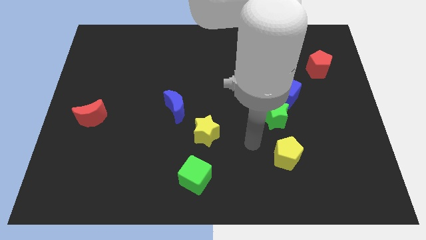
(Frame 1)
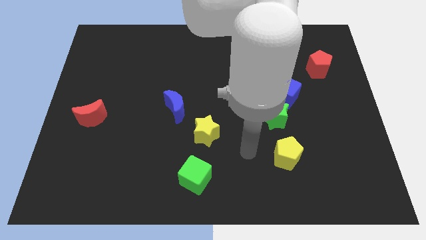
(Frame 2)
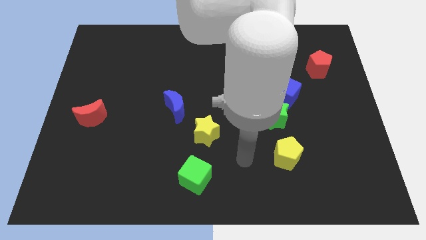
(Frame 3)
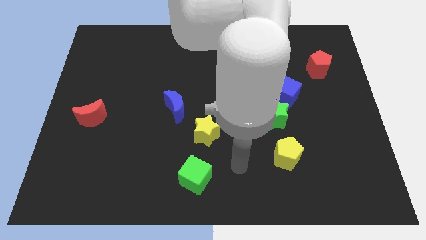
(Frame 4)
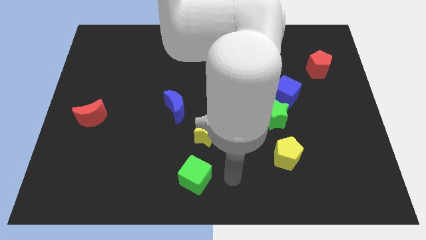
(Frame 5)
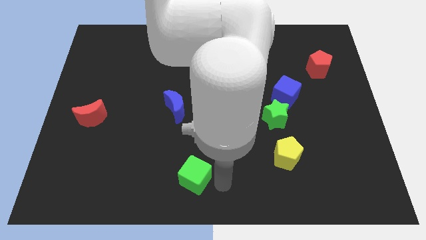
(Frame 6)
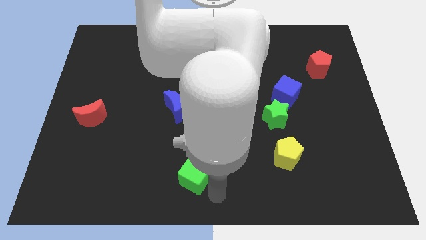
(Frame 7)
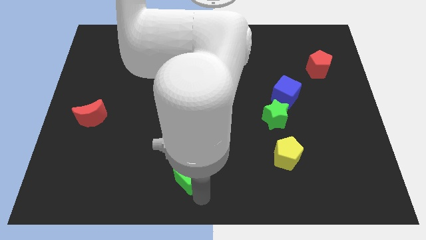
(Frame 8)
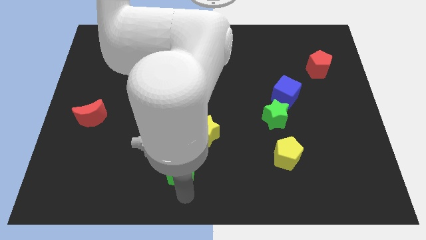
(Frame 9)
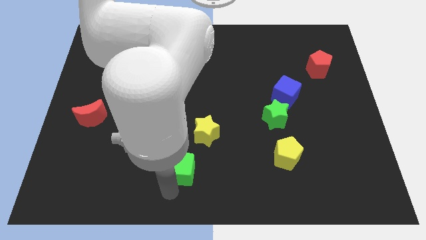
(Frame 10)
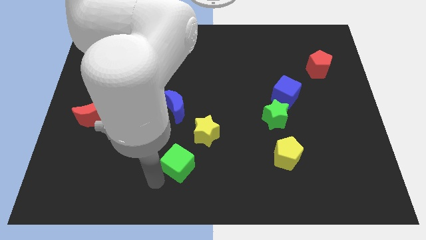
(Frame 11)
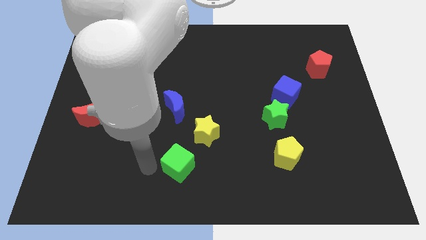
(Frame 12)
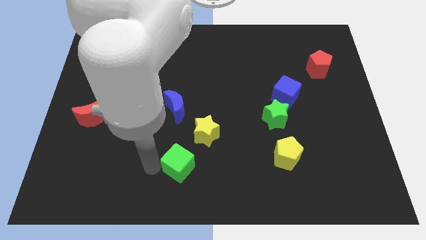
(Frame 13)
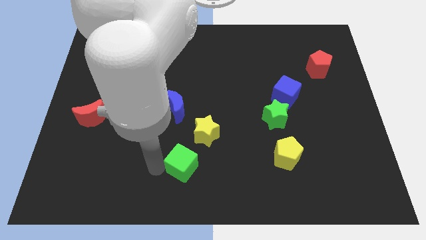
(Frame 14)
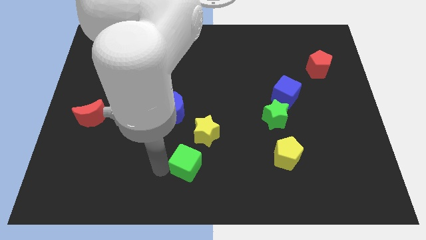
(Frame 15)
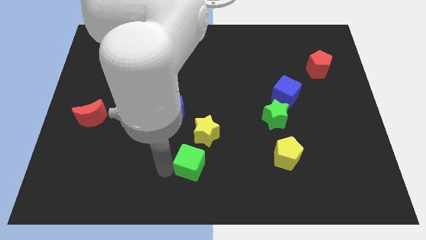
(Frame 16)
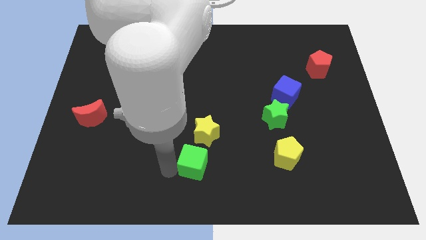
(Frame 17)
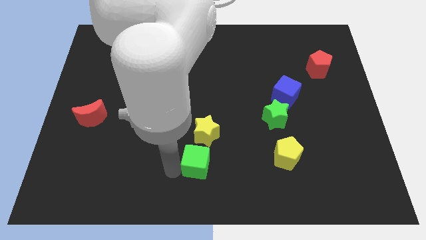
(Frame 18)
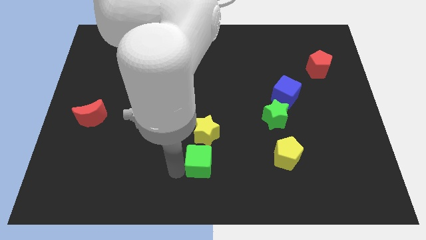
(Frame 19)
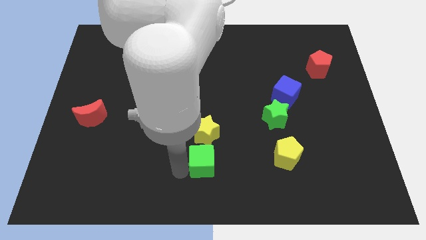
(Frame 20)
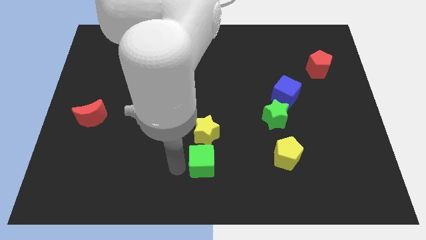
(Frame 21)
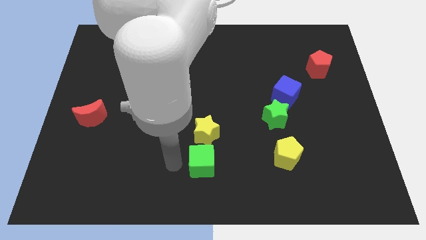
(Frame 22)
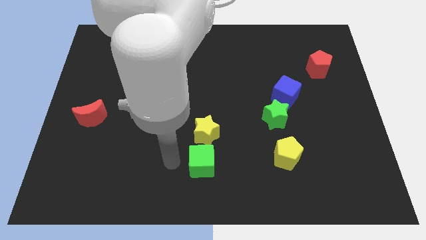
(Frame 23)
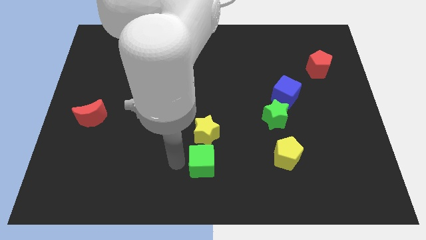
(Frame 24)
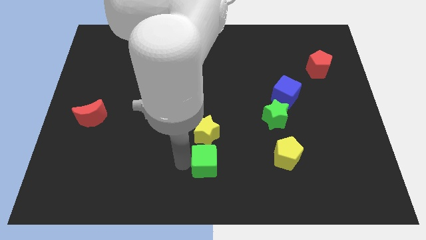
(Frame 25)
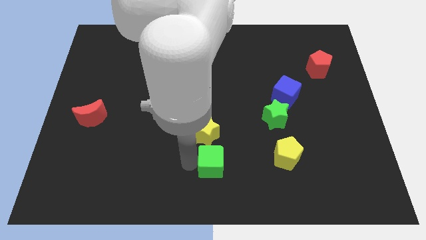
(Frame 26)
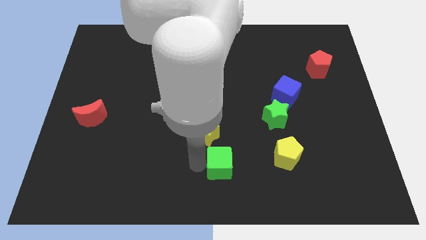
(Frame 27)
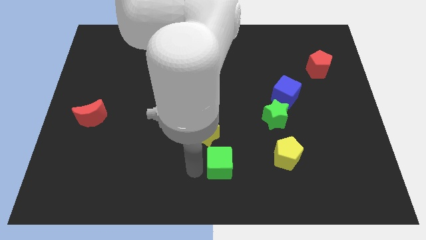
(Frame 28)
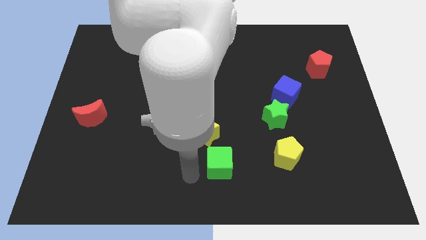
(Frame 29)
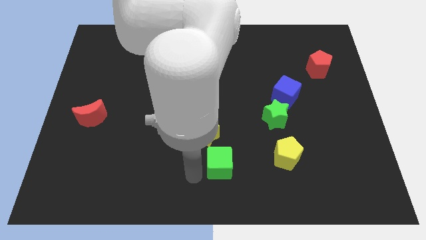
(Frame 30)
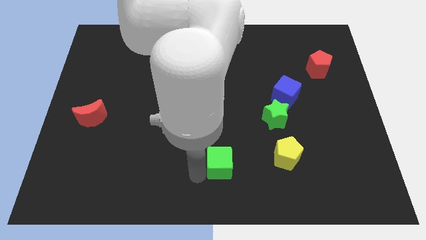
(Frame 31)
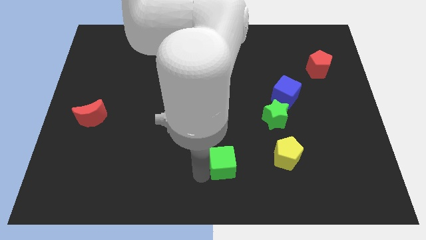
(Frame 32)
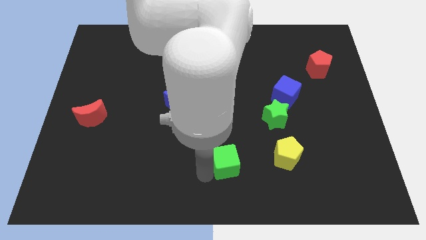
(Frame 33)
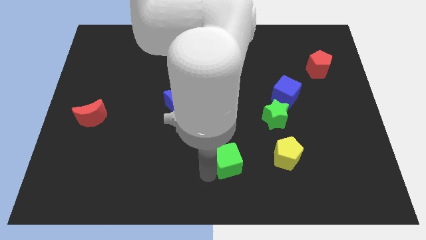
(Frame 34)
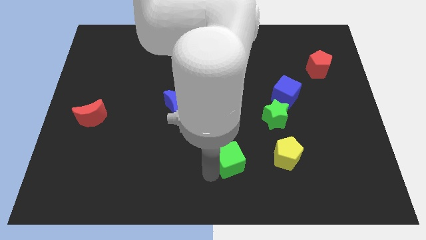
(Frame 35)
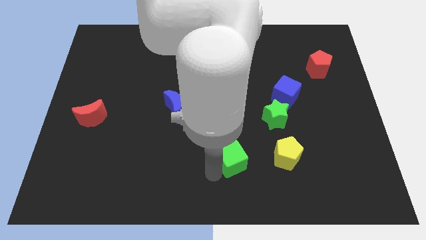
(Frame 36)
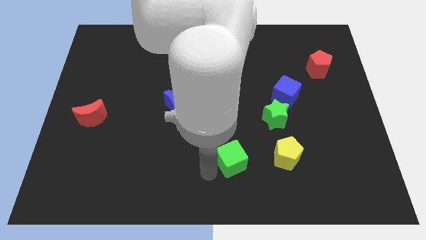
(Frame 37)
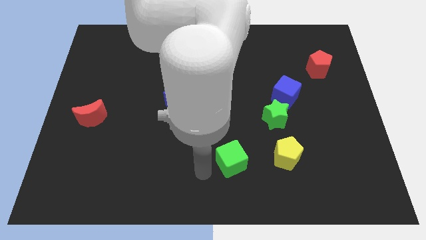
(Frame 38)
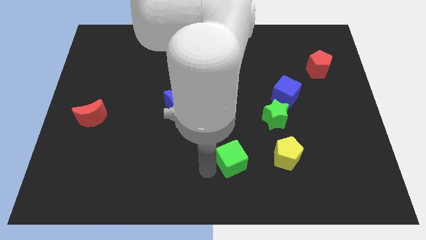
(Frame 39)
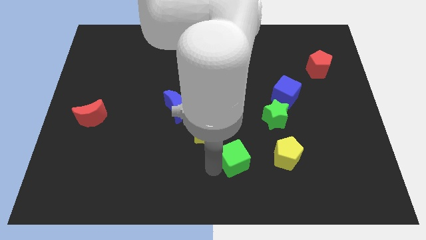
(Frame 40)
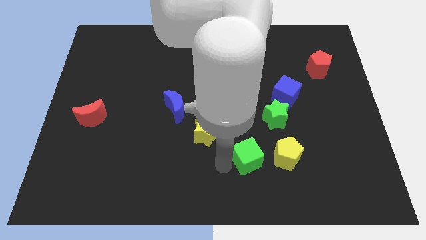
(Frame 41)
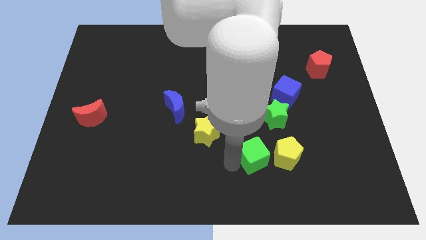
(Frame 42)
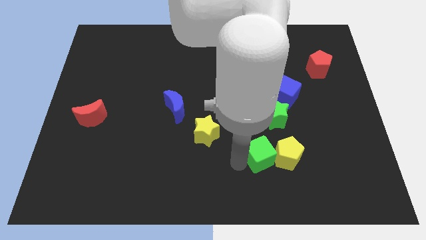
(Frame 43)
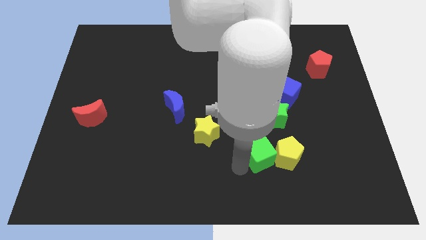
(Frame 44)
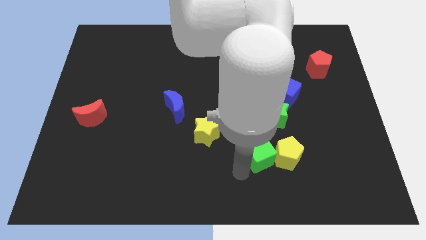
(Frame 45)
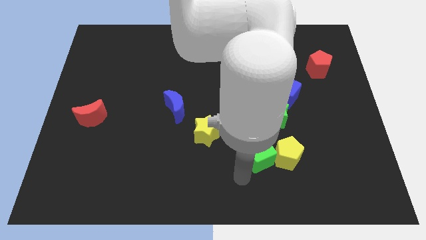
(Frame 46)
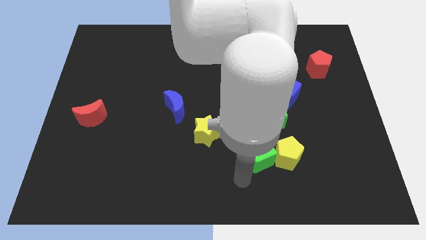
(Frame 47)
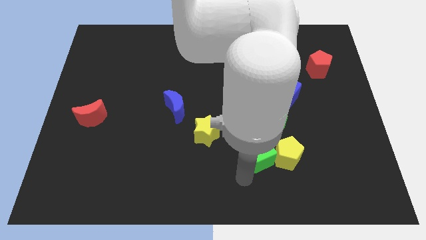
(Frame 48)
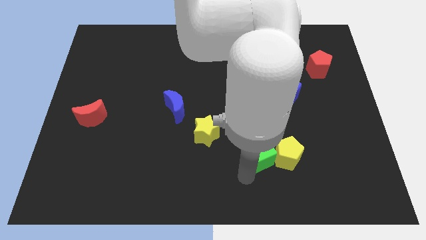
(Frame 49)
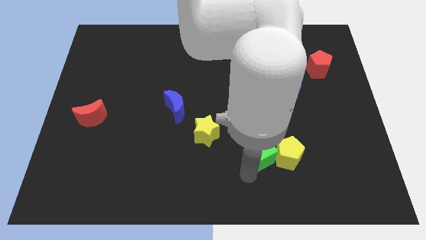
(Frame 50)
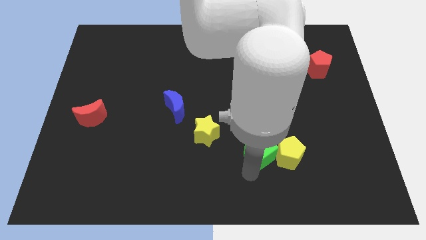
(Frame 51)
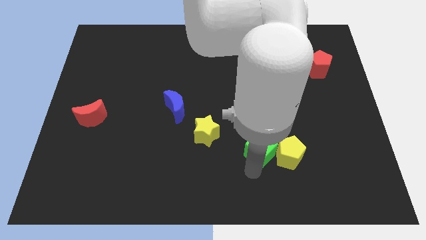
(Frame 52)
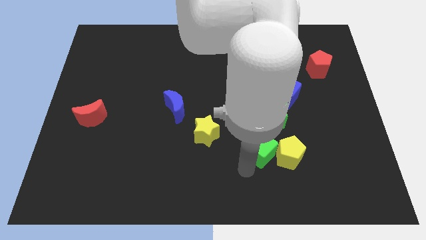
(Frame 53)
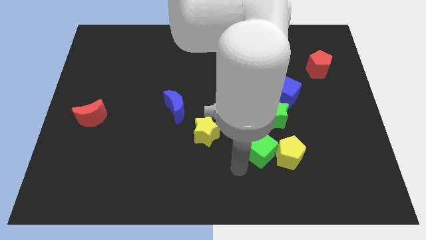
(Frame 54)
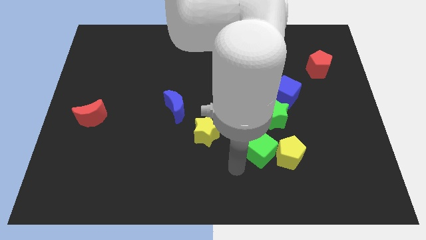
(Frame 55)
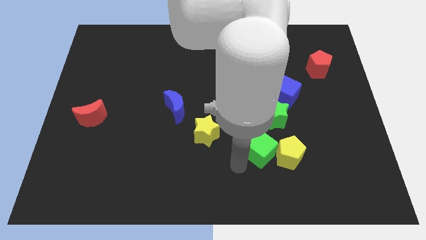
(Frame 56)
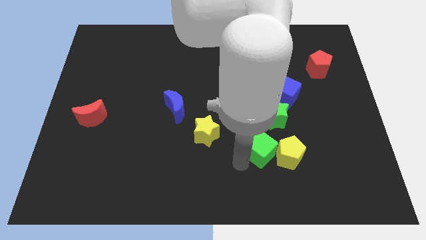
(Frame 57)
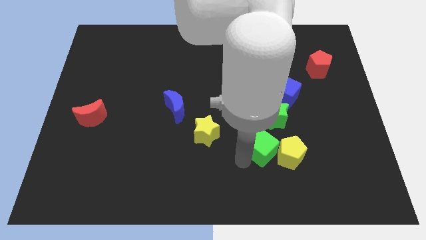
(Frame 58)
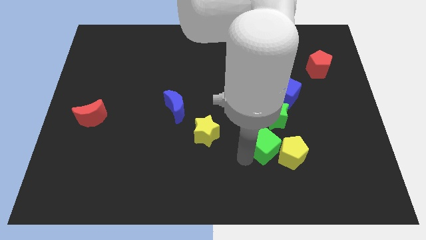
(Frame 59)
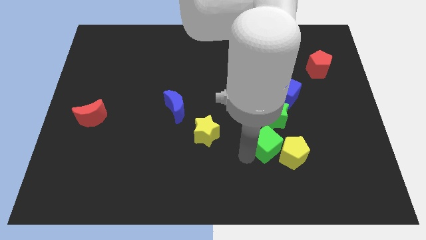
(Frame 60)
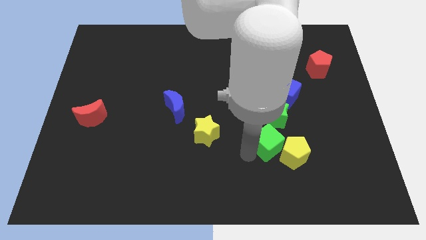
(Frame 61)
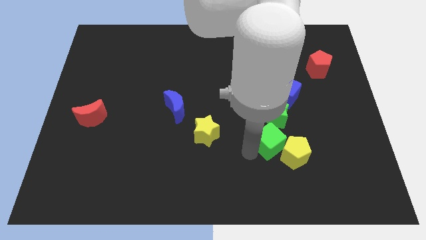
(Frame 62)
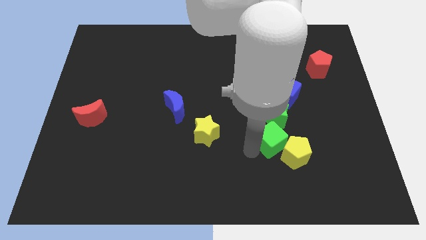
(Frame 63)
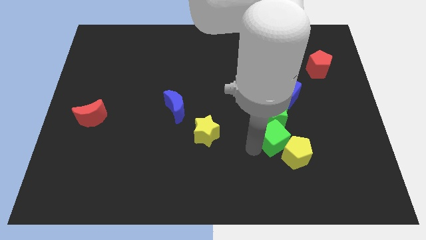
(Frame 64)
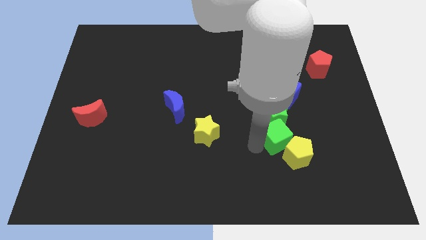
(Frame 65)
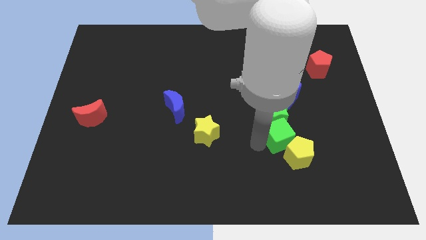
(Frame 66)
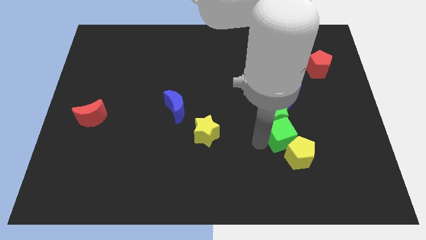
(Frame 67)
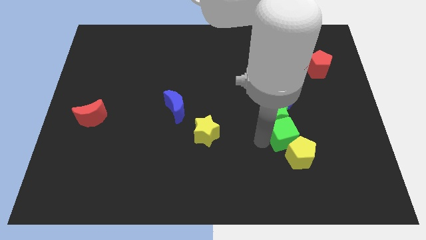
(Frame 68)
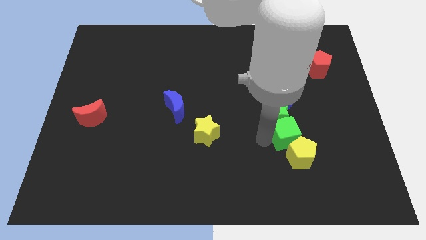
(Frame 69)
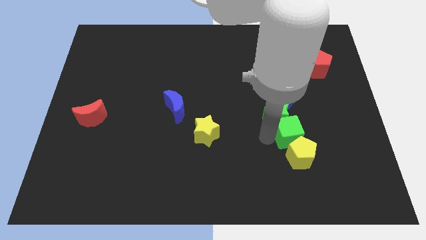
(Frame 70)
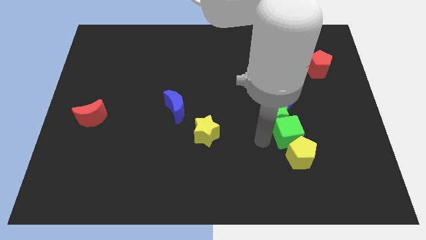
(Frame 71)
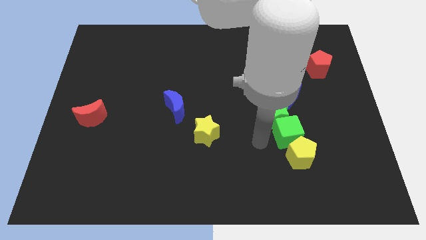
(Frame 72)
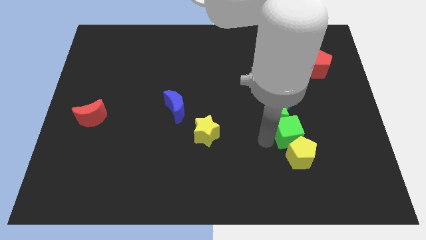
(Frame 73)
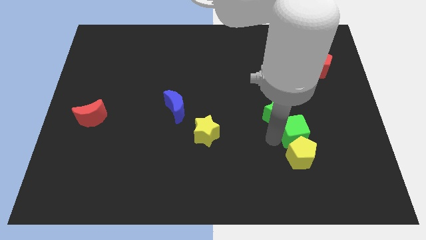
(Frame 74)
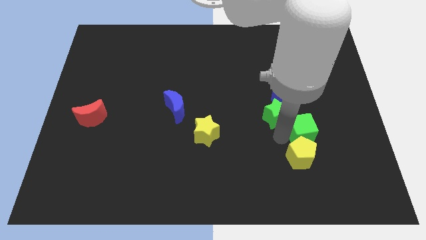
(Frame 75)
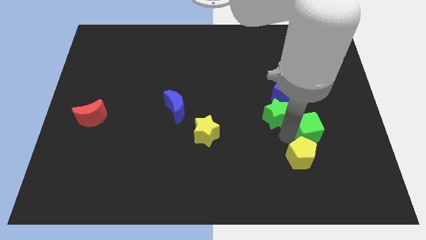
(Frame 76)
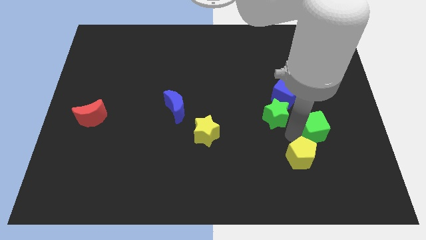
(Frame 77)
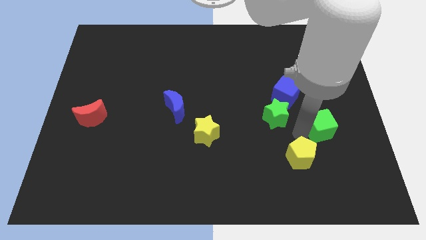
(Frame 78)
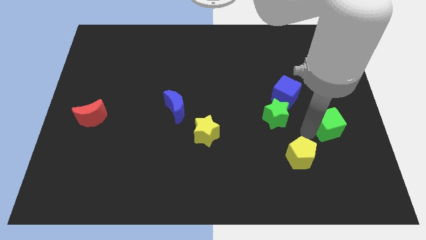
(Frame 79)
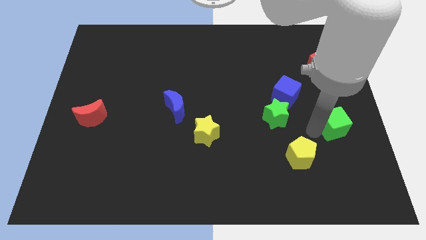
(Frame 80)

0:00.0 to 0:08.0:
push the green cube to the right side of the board
